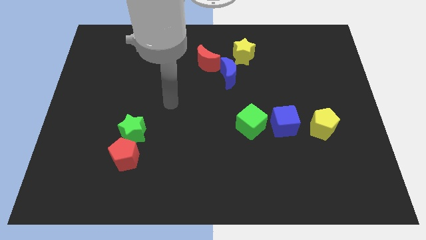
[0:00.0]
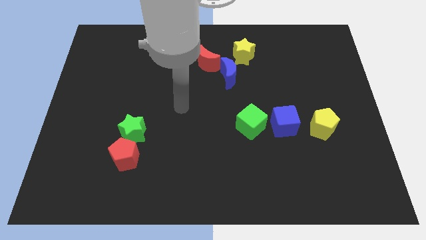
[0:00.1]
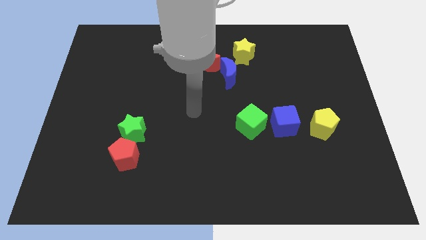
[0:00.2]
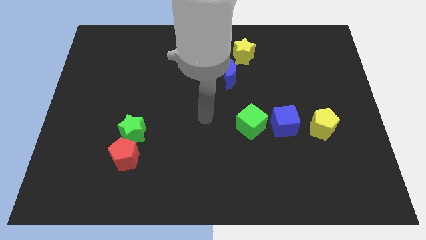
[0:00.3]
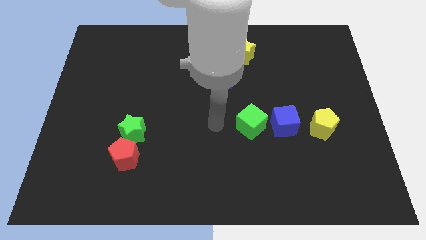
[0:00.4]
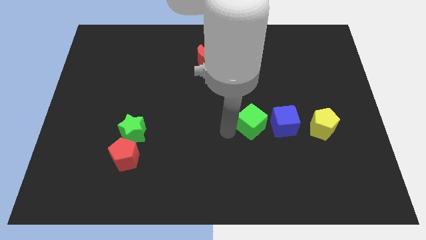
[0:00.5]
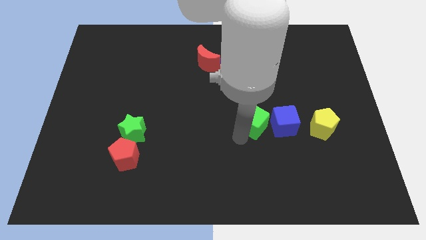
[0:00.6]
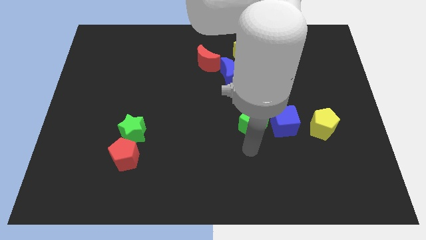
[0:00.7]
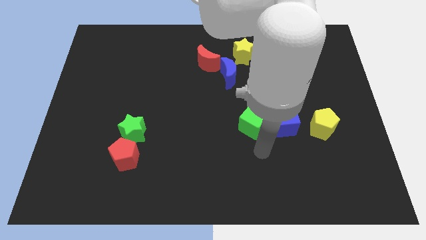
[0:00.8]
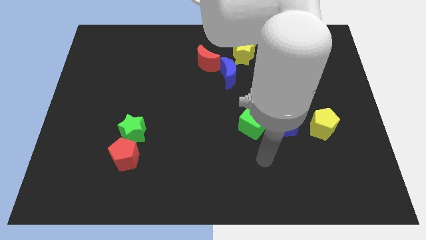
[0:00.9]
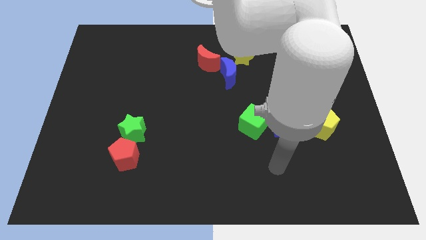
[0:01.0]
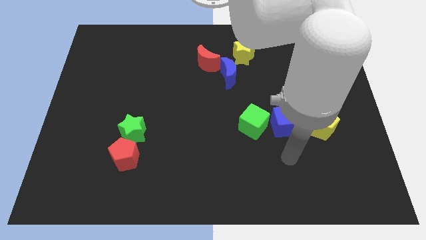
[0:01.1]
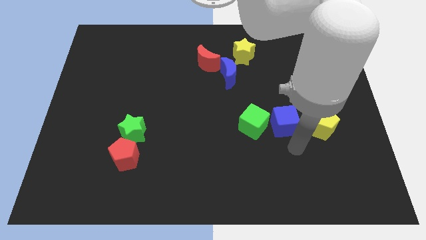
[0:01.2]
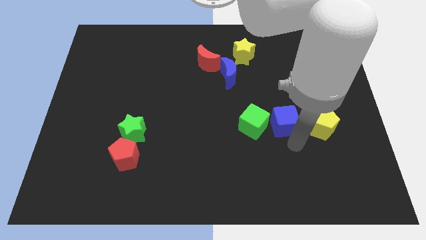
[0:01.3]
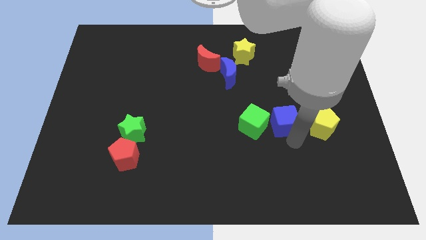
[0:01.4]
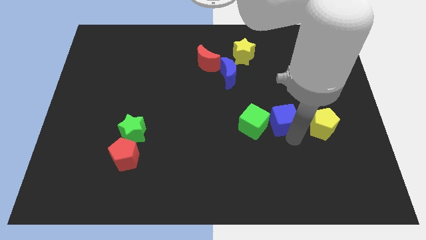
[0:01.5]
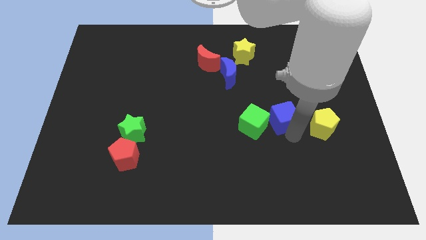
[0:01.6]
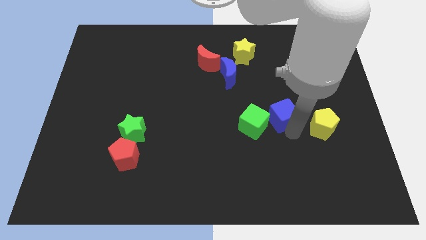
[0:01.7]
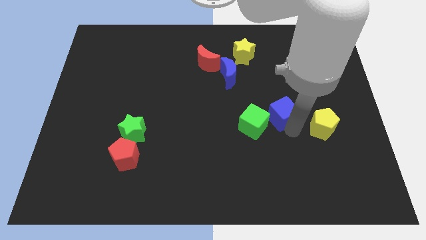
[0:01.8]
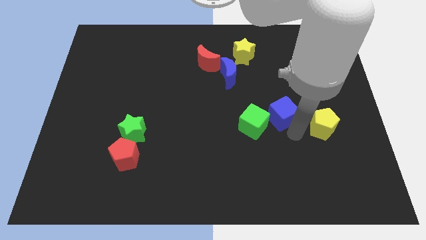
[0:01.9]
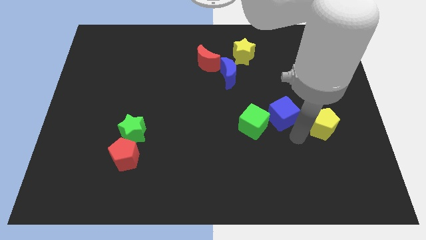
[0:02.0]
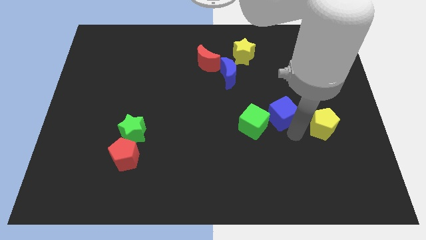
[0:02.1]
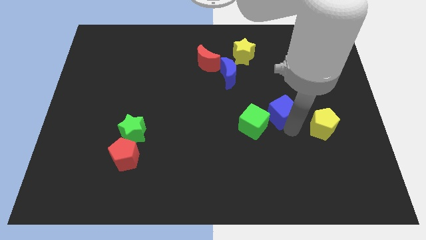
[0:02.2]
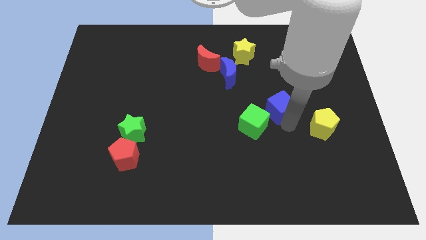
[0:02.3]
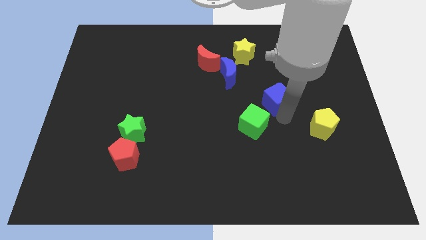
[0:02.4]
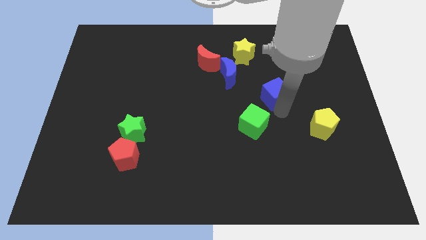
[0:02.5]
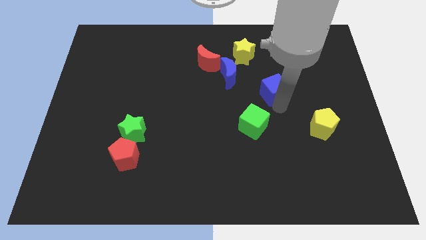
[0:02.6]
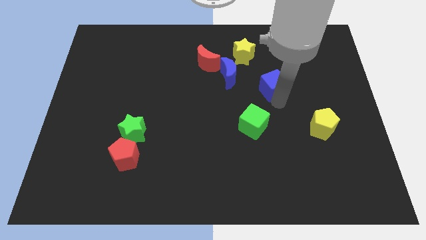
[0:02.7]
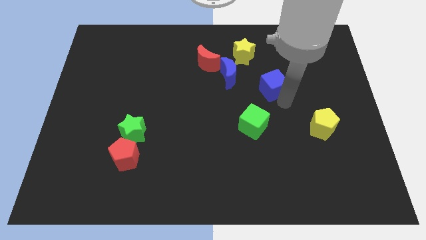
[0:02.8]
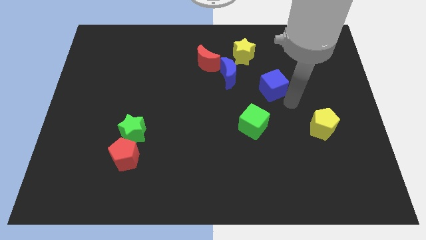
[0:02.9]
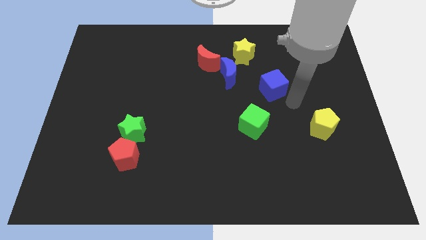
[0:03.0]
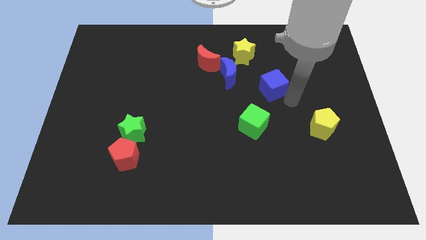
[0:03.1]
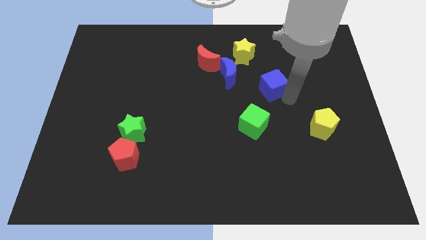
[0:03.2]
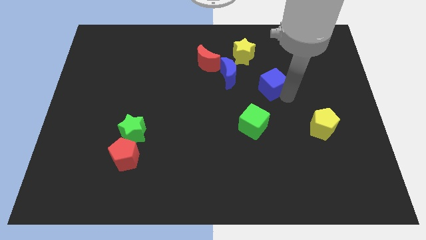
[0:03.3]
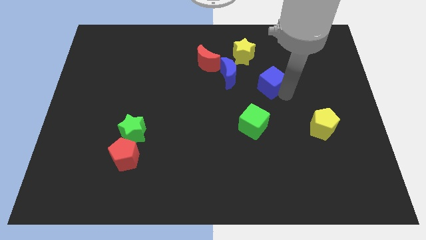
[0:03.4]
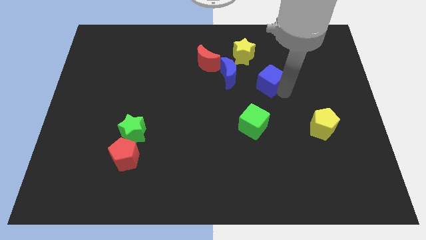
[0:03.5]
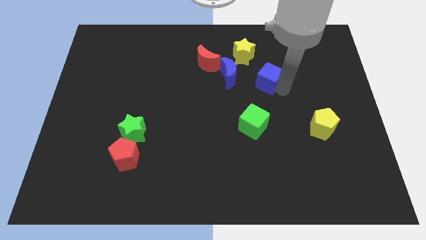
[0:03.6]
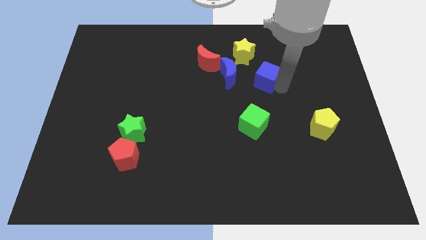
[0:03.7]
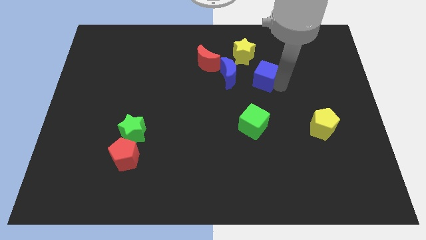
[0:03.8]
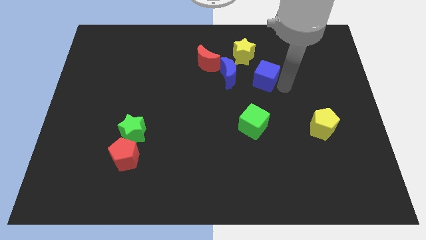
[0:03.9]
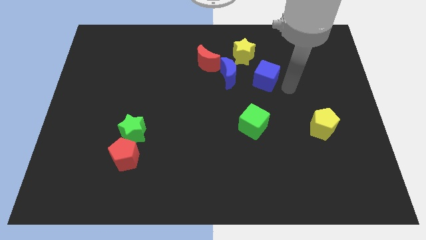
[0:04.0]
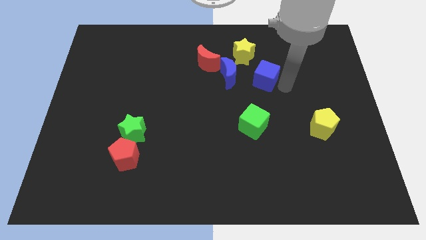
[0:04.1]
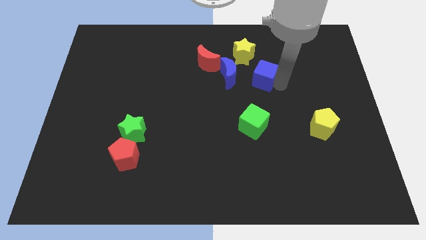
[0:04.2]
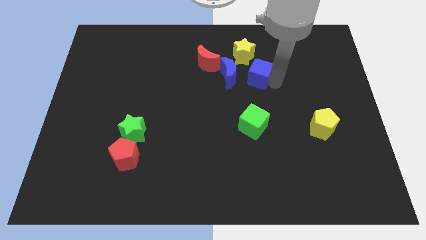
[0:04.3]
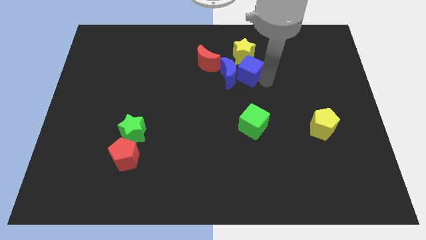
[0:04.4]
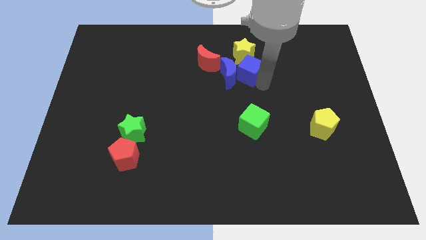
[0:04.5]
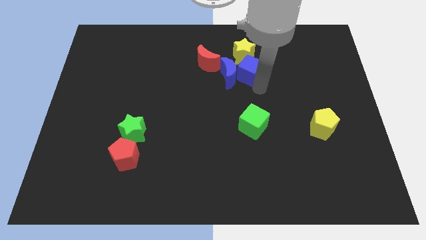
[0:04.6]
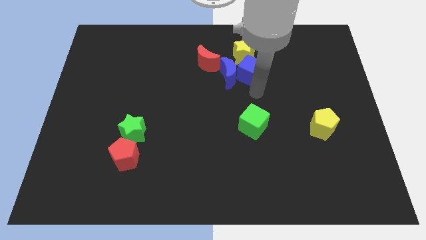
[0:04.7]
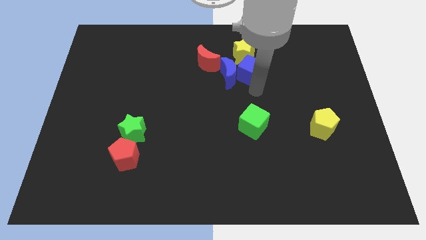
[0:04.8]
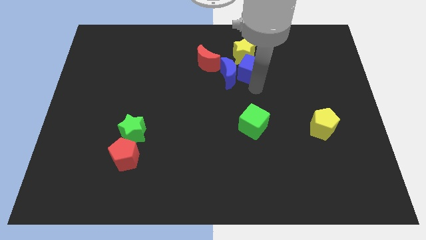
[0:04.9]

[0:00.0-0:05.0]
slide the blue cube close to the yellow star

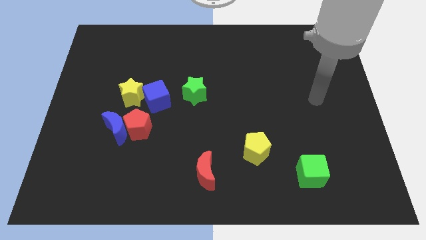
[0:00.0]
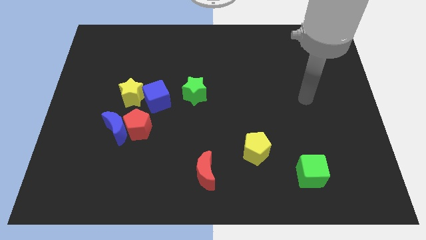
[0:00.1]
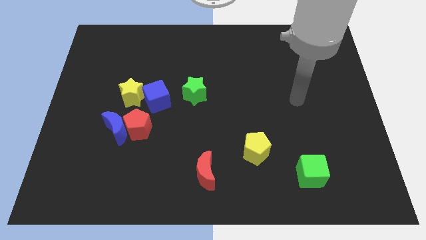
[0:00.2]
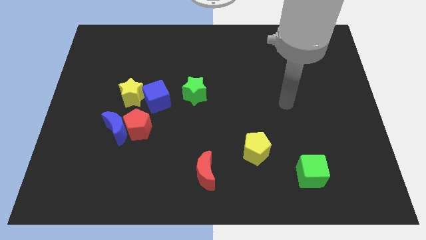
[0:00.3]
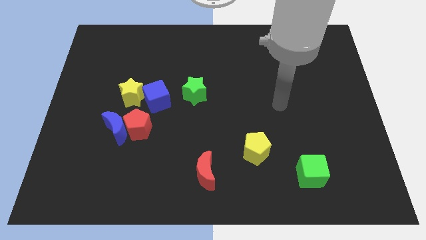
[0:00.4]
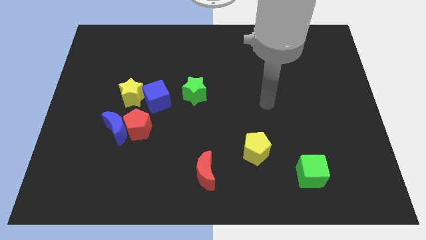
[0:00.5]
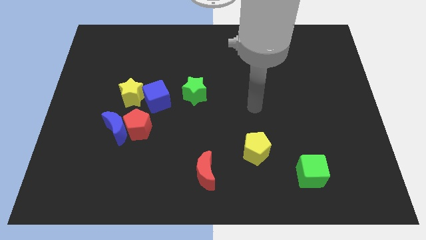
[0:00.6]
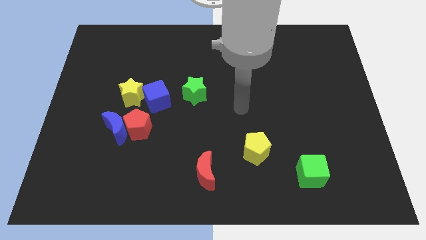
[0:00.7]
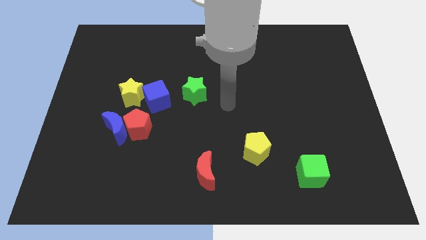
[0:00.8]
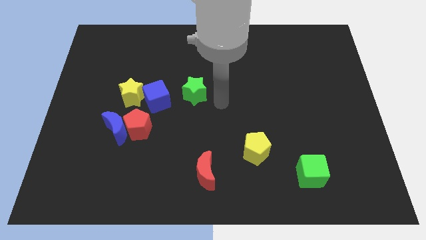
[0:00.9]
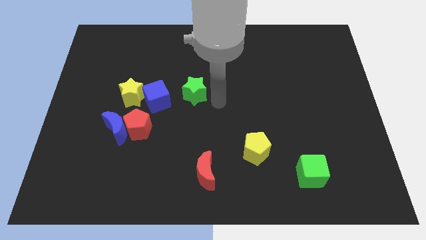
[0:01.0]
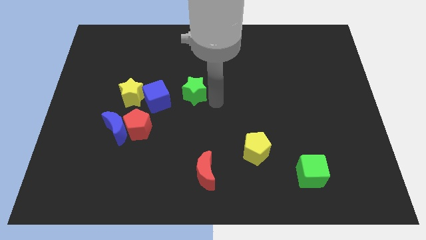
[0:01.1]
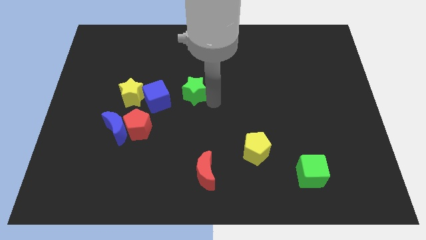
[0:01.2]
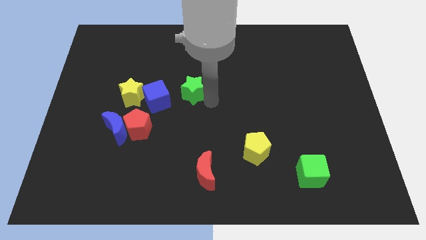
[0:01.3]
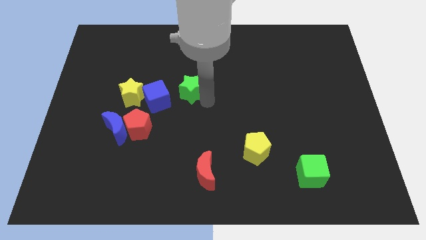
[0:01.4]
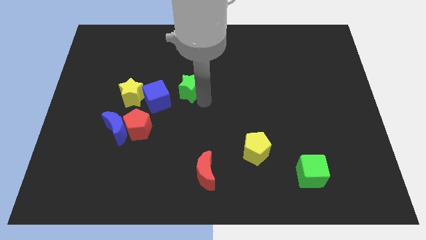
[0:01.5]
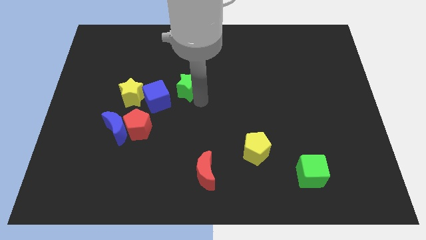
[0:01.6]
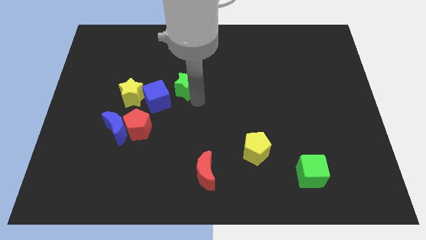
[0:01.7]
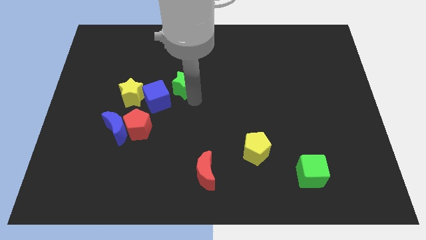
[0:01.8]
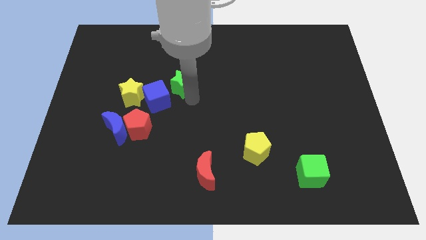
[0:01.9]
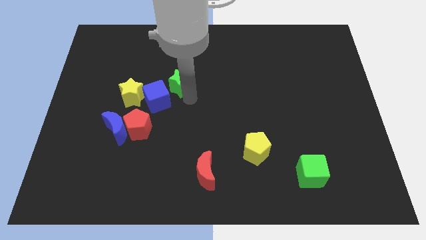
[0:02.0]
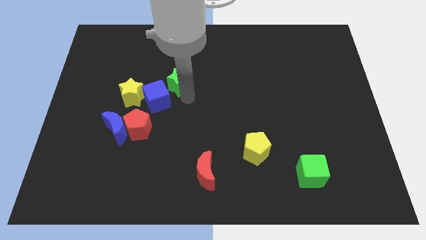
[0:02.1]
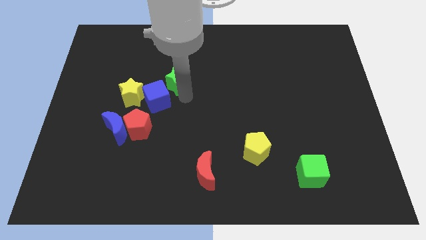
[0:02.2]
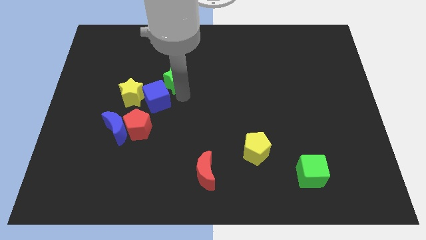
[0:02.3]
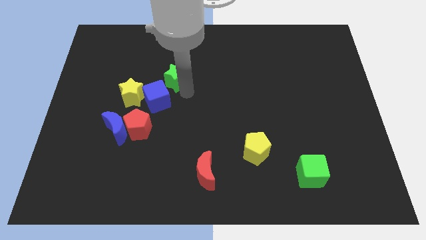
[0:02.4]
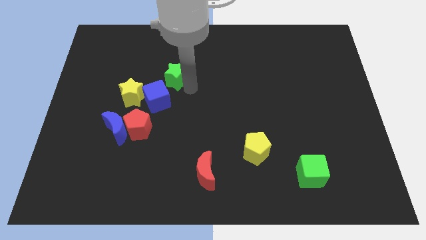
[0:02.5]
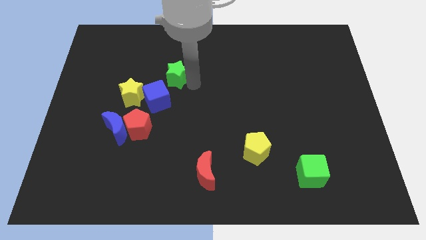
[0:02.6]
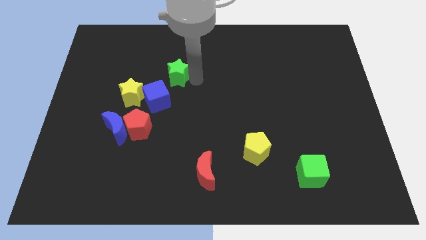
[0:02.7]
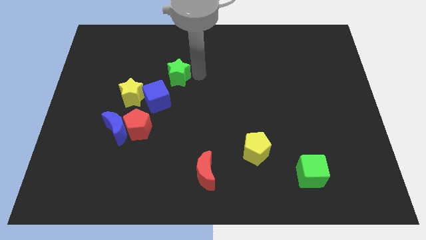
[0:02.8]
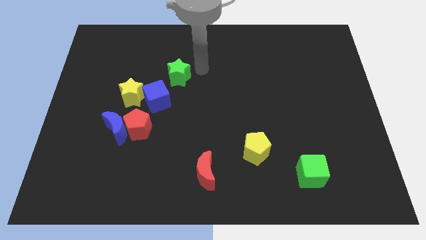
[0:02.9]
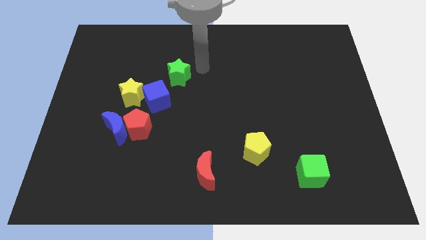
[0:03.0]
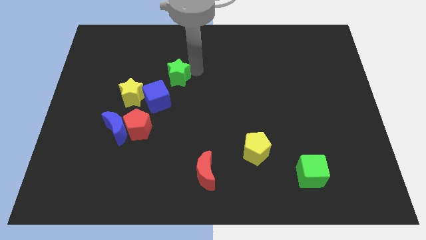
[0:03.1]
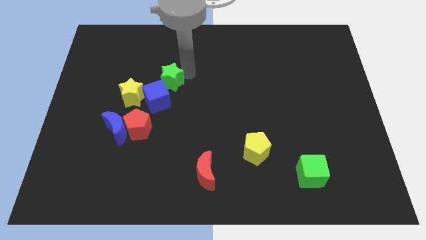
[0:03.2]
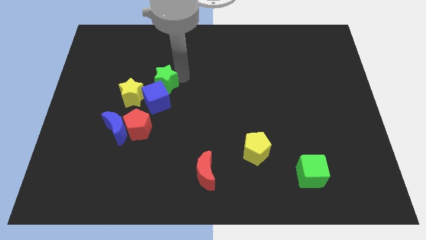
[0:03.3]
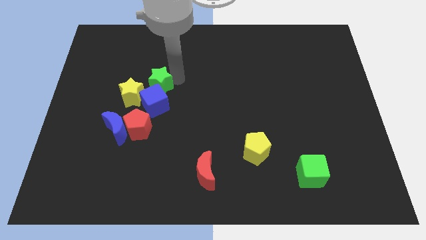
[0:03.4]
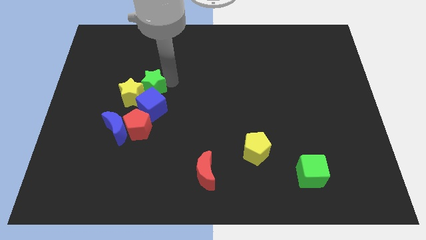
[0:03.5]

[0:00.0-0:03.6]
move the green star close to the yellow star
